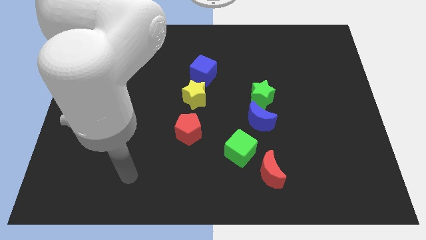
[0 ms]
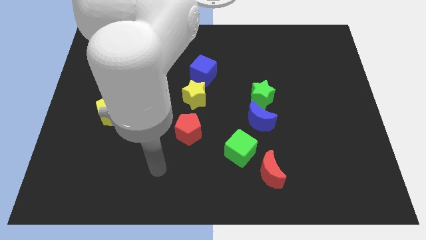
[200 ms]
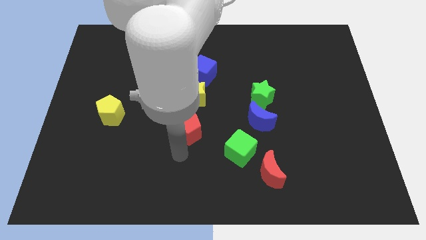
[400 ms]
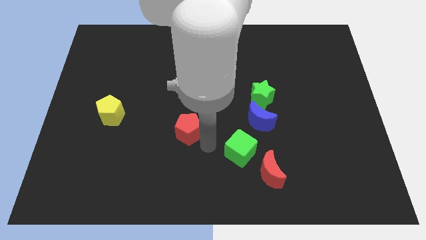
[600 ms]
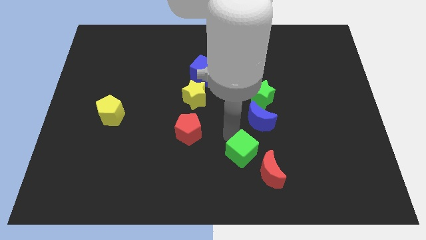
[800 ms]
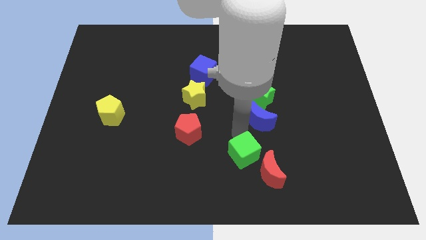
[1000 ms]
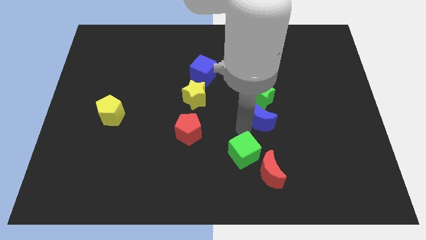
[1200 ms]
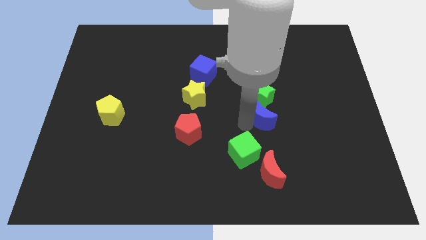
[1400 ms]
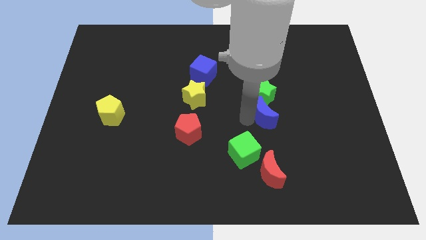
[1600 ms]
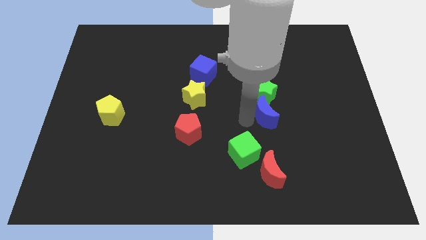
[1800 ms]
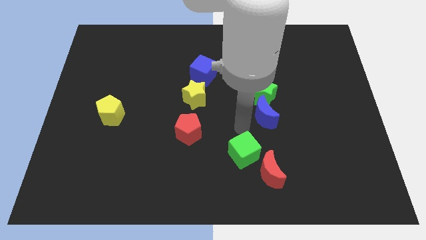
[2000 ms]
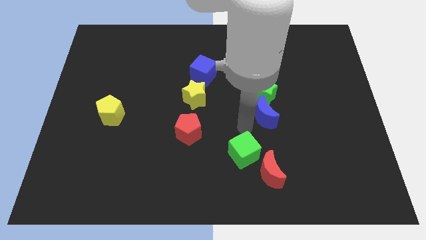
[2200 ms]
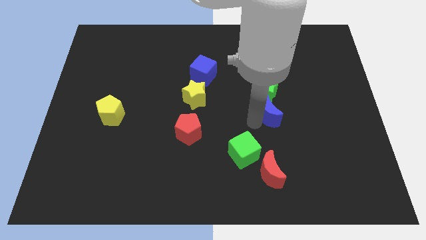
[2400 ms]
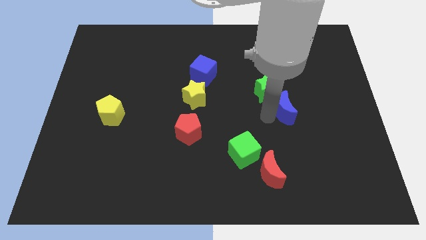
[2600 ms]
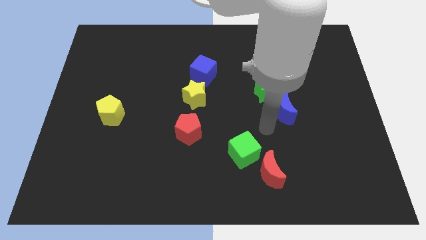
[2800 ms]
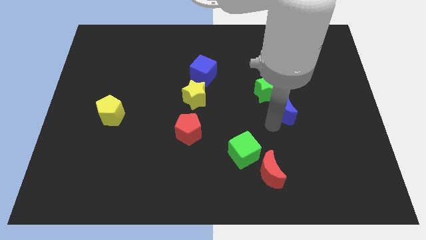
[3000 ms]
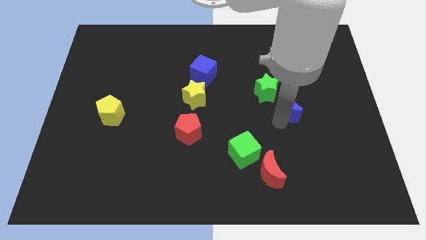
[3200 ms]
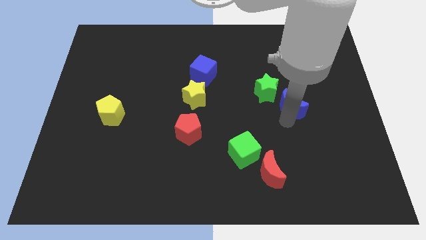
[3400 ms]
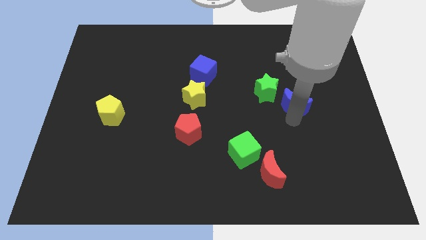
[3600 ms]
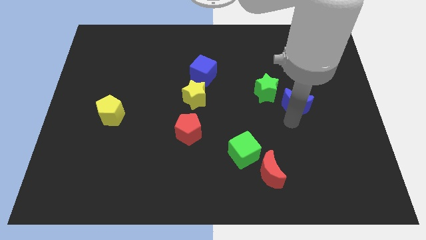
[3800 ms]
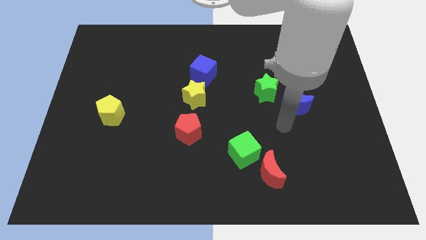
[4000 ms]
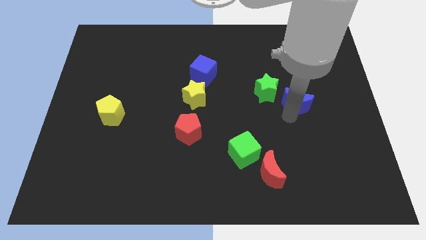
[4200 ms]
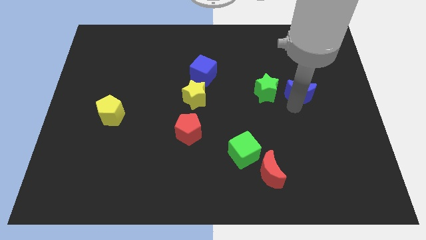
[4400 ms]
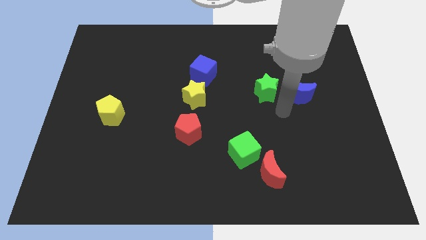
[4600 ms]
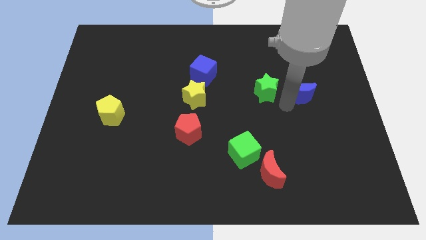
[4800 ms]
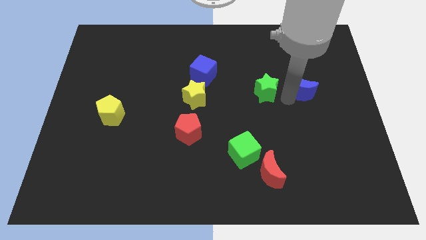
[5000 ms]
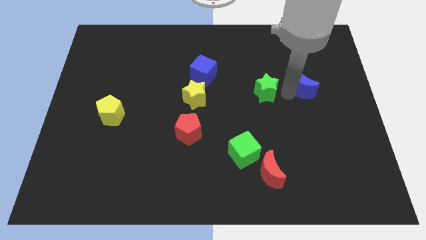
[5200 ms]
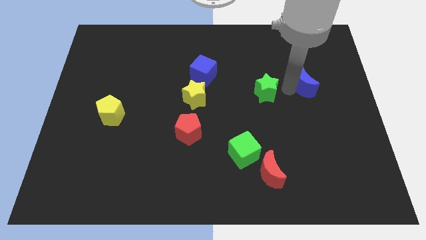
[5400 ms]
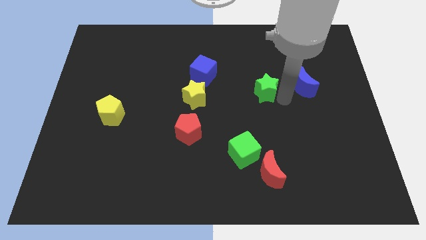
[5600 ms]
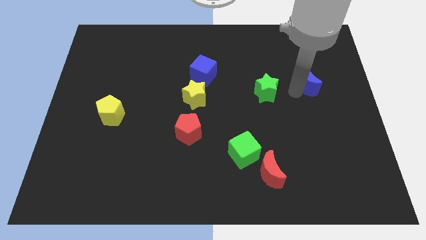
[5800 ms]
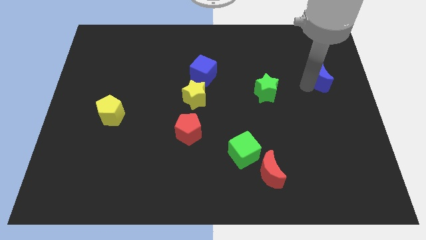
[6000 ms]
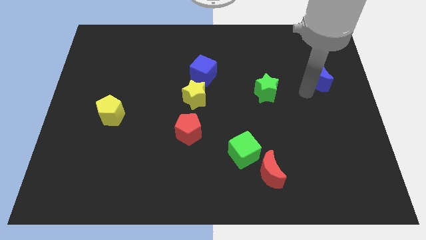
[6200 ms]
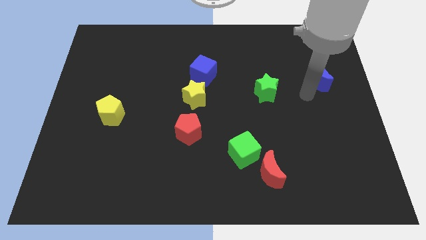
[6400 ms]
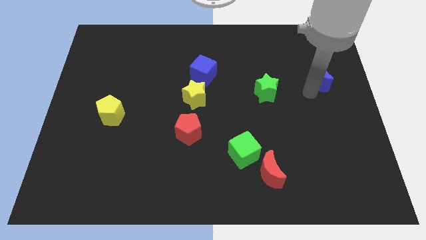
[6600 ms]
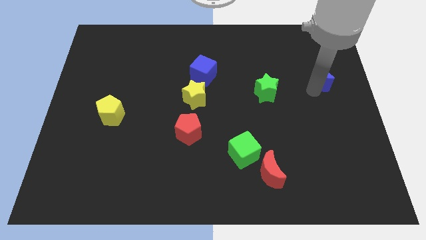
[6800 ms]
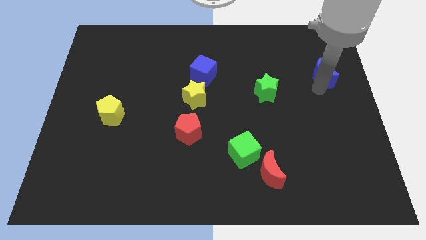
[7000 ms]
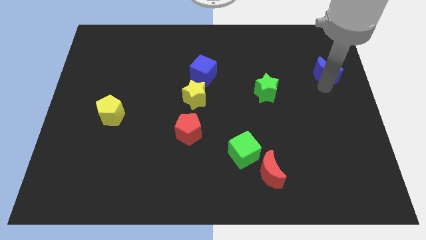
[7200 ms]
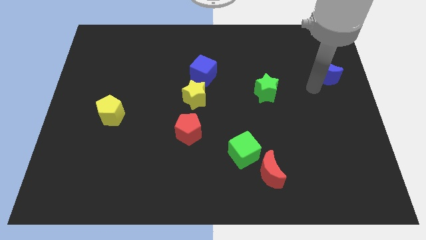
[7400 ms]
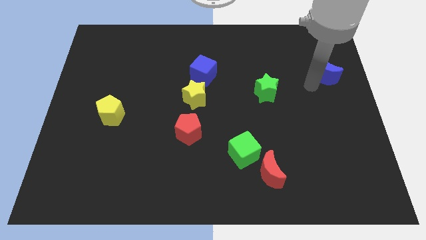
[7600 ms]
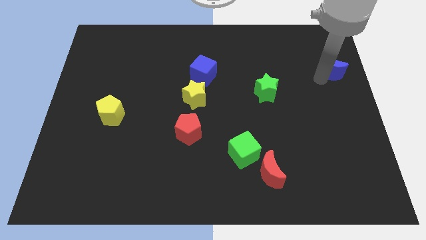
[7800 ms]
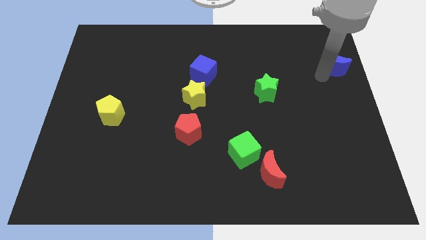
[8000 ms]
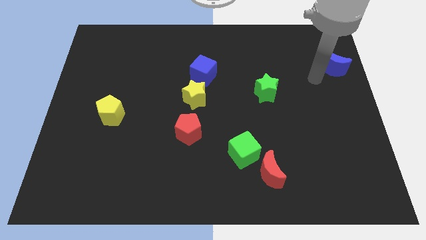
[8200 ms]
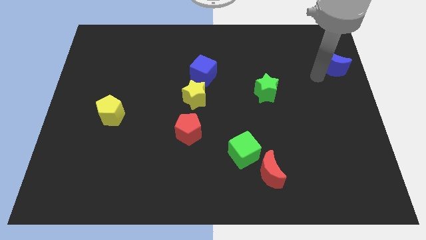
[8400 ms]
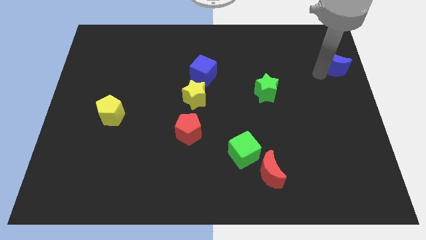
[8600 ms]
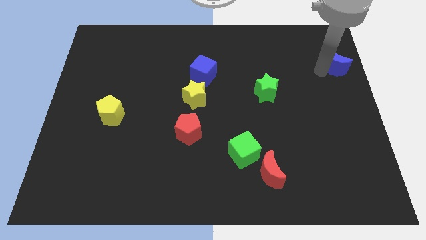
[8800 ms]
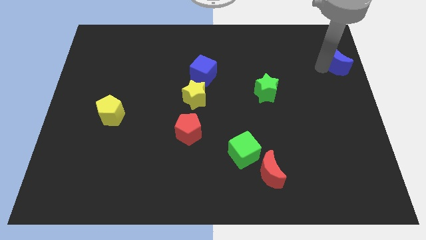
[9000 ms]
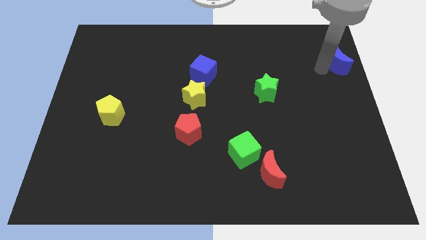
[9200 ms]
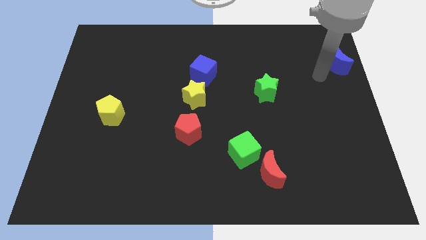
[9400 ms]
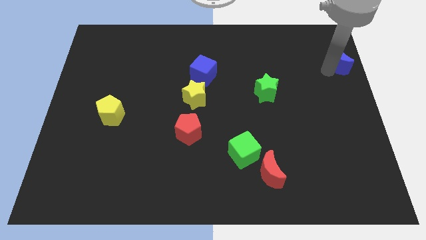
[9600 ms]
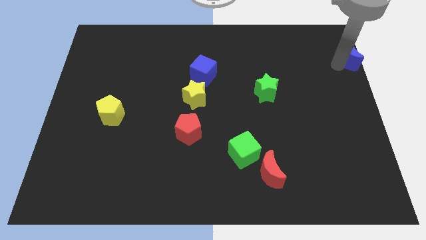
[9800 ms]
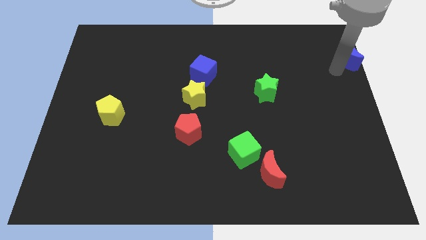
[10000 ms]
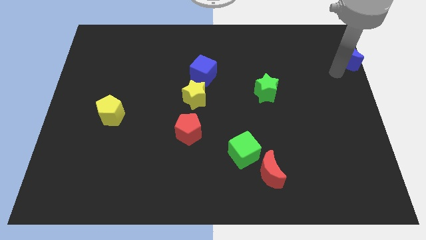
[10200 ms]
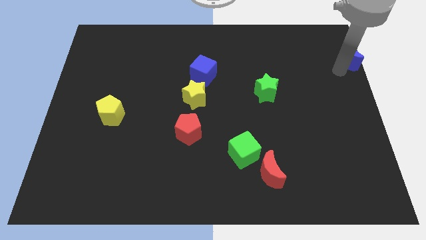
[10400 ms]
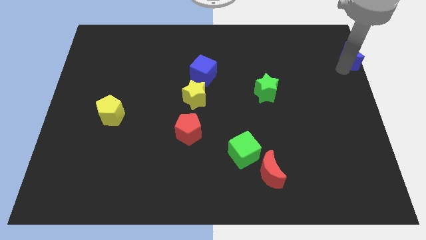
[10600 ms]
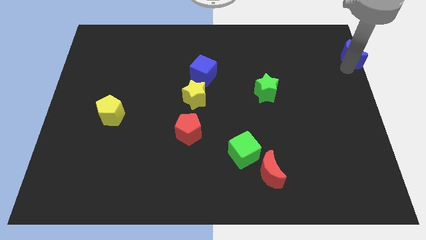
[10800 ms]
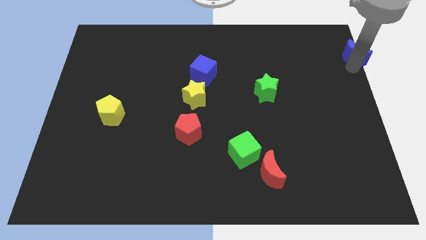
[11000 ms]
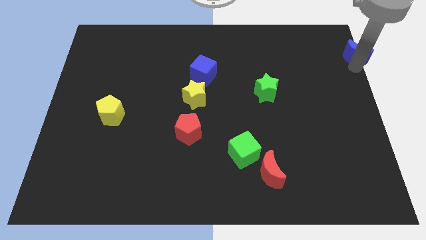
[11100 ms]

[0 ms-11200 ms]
move the blue moon to the upper right corner
